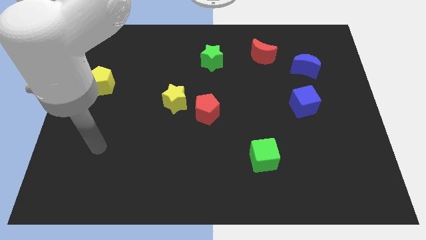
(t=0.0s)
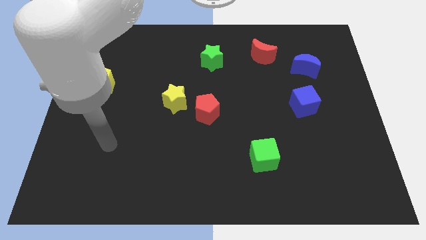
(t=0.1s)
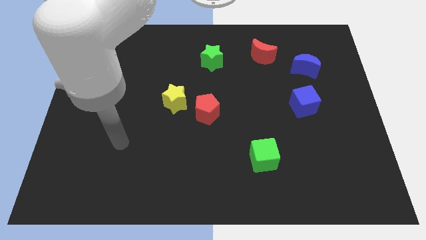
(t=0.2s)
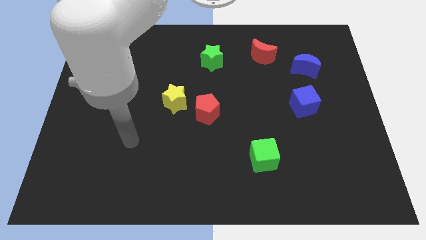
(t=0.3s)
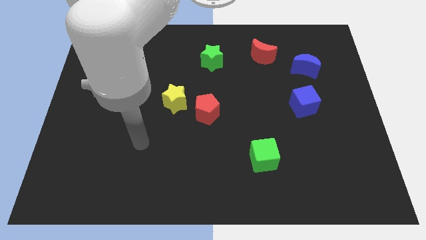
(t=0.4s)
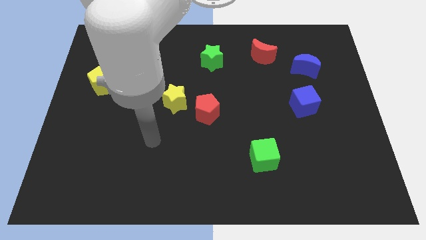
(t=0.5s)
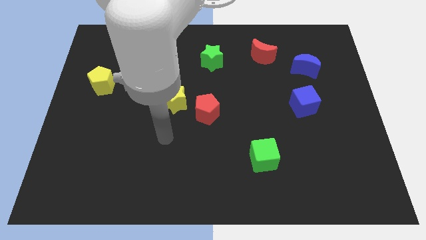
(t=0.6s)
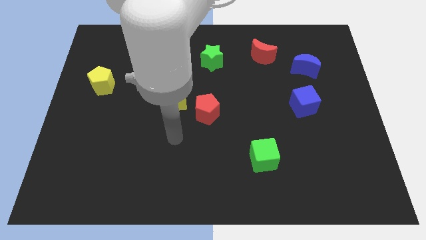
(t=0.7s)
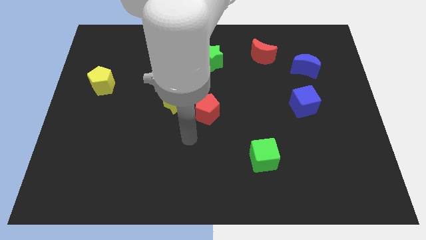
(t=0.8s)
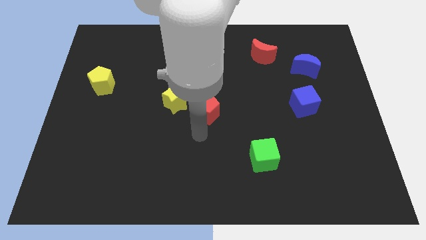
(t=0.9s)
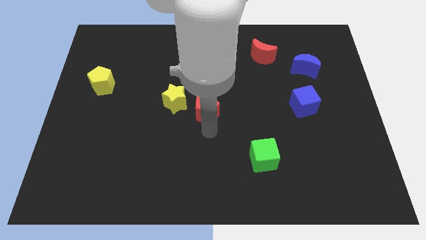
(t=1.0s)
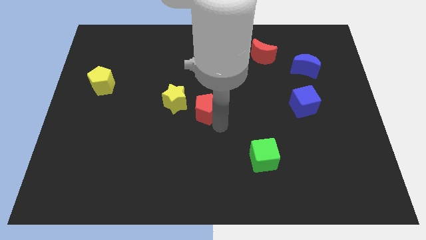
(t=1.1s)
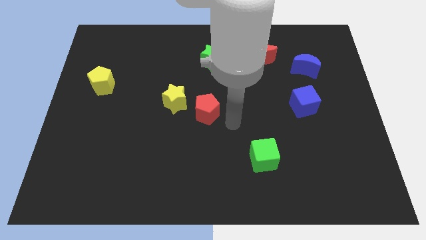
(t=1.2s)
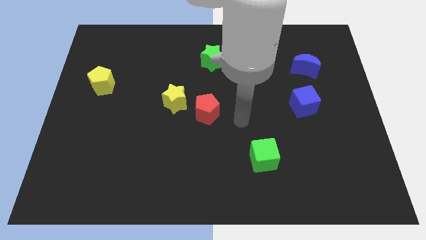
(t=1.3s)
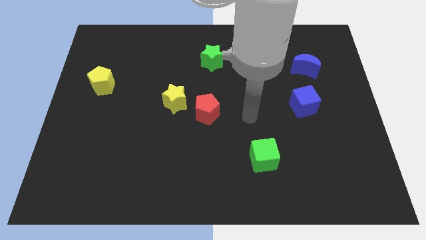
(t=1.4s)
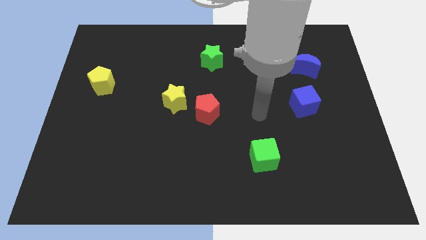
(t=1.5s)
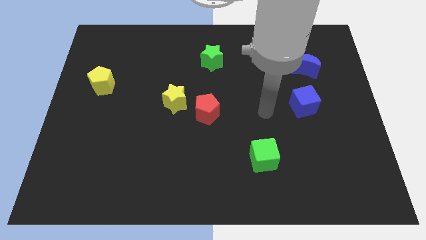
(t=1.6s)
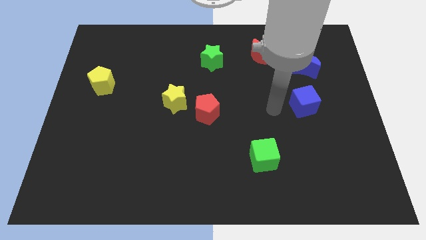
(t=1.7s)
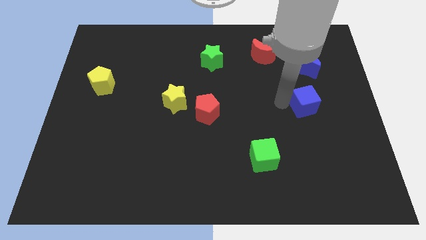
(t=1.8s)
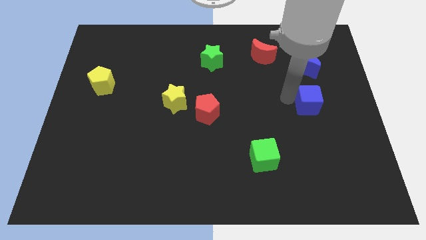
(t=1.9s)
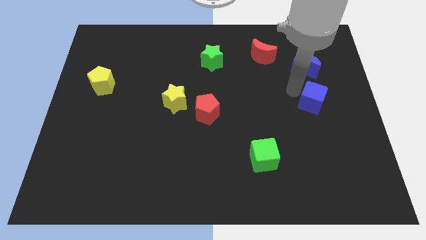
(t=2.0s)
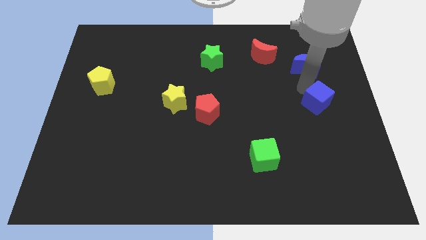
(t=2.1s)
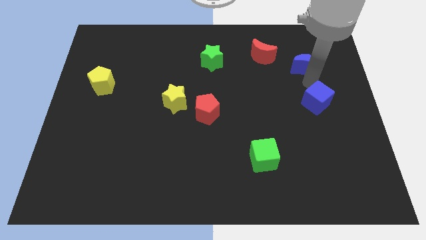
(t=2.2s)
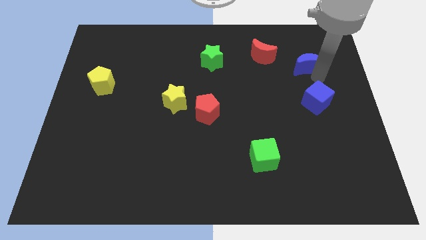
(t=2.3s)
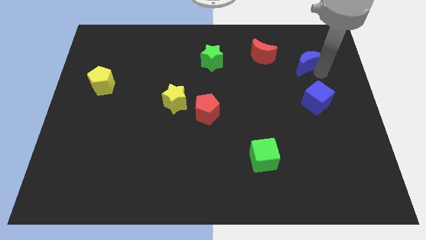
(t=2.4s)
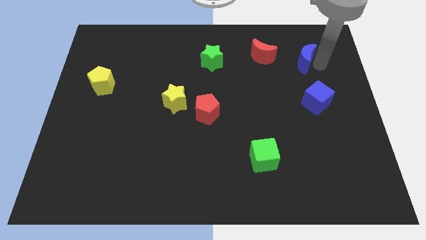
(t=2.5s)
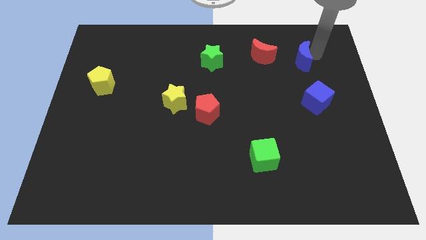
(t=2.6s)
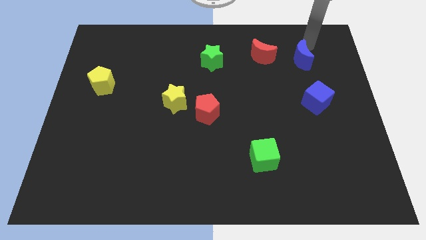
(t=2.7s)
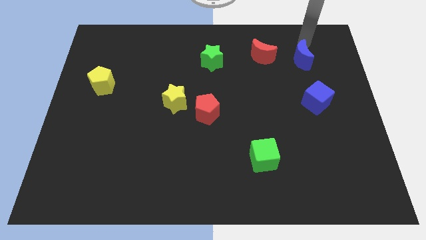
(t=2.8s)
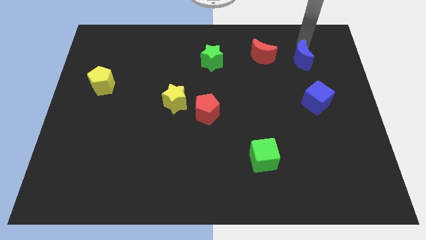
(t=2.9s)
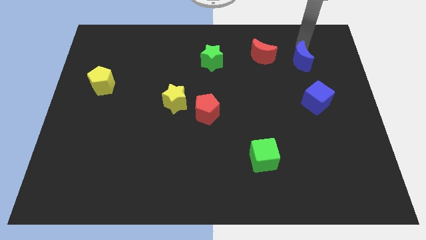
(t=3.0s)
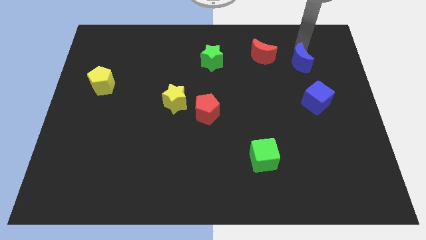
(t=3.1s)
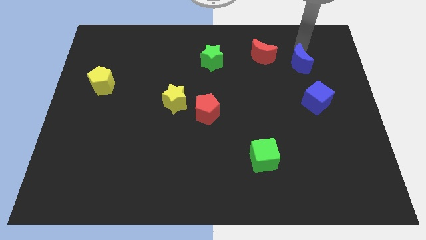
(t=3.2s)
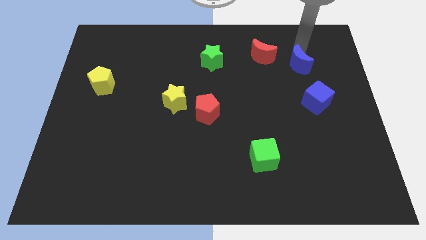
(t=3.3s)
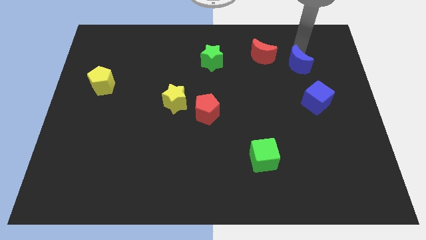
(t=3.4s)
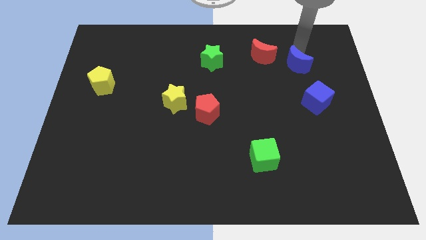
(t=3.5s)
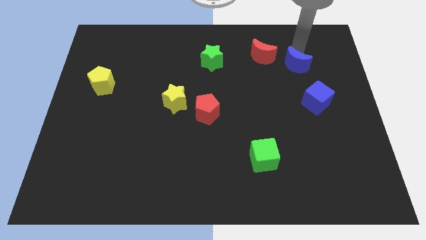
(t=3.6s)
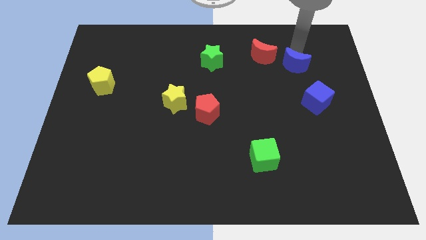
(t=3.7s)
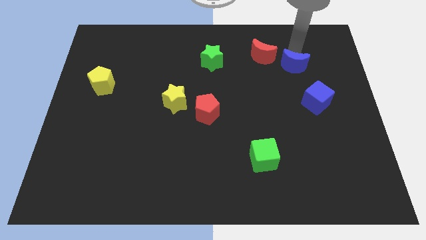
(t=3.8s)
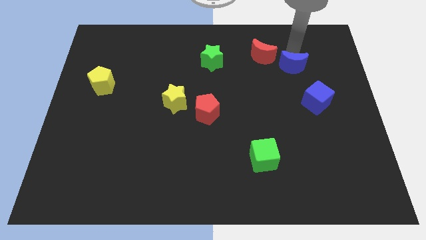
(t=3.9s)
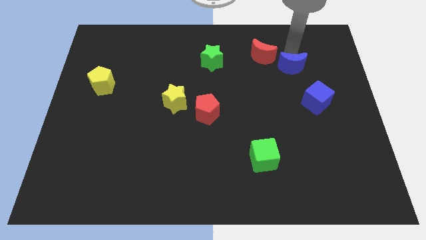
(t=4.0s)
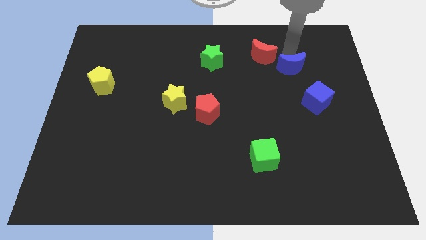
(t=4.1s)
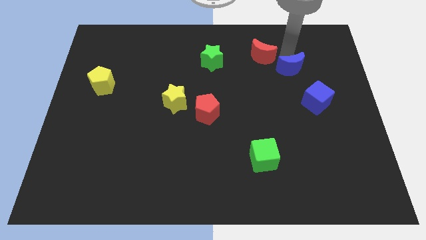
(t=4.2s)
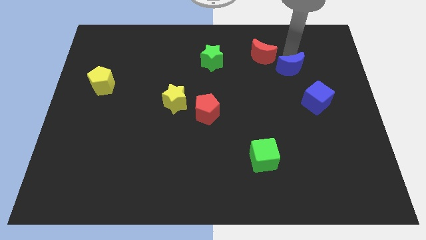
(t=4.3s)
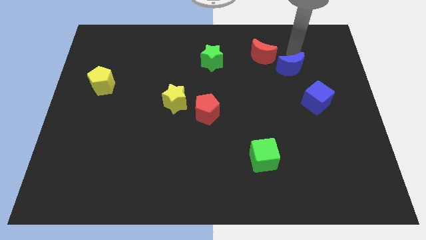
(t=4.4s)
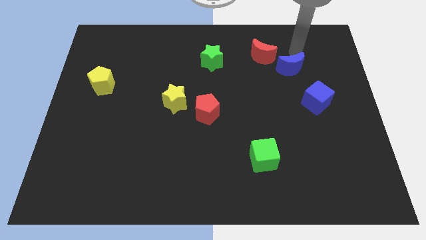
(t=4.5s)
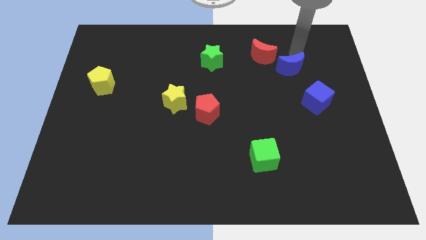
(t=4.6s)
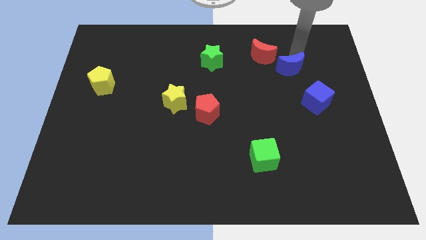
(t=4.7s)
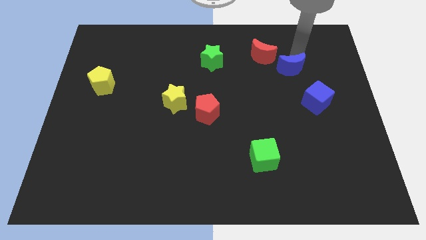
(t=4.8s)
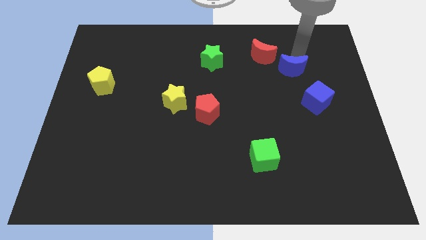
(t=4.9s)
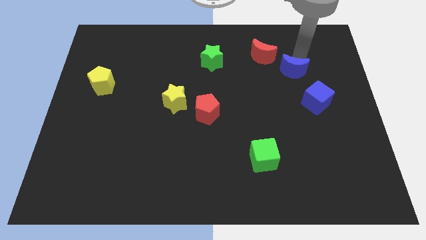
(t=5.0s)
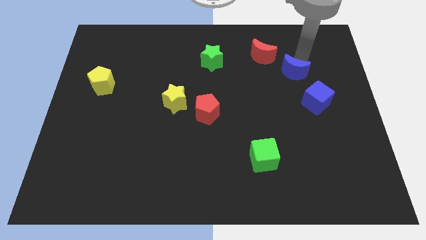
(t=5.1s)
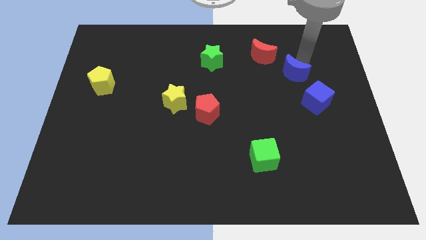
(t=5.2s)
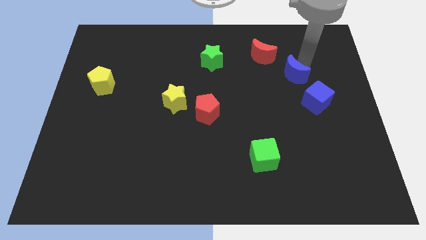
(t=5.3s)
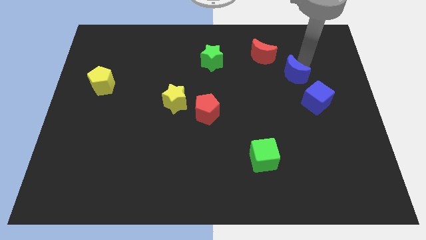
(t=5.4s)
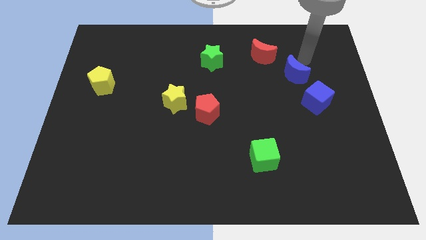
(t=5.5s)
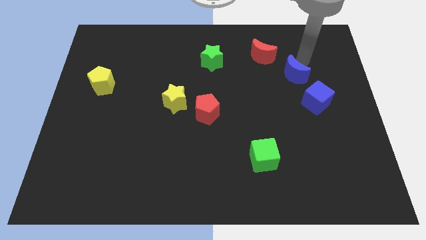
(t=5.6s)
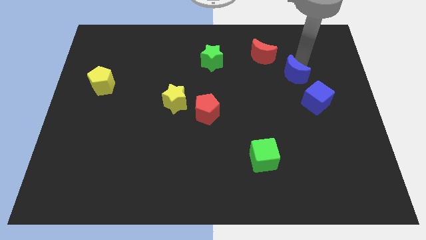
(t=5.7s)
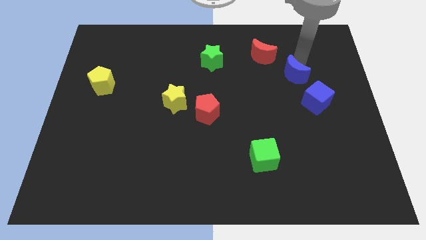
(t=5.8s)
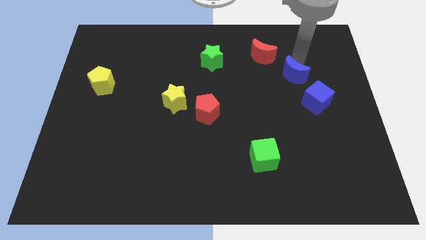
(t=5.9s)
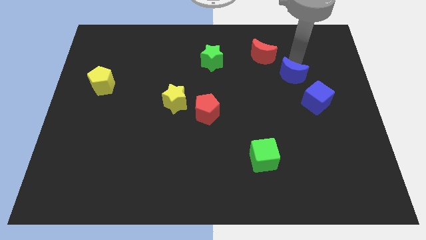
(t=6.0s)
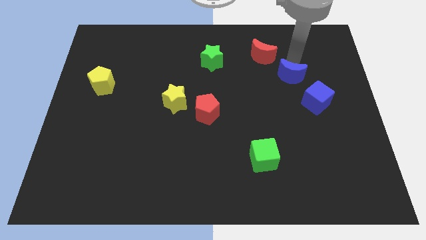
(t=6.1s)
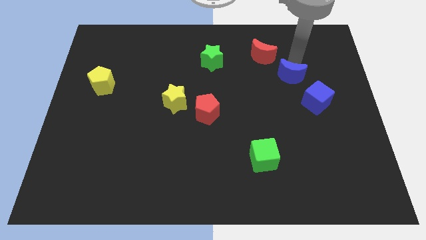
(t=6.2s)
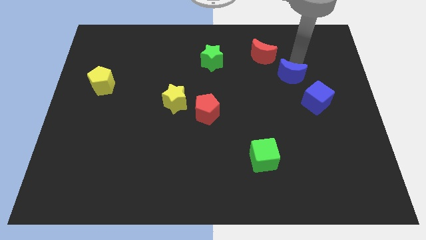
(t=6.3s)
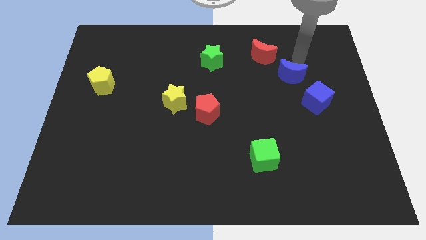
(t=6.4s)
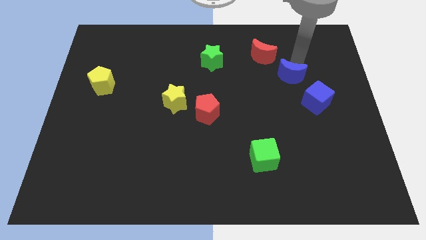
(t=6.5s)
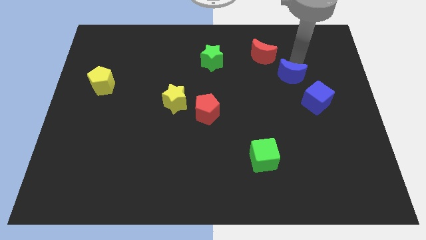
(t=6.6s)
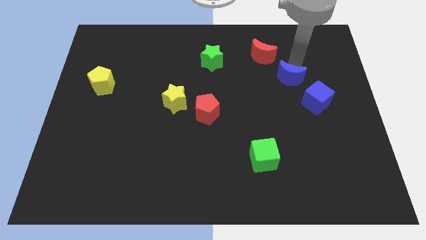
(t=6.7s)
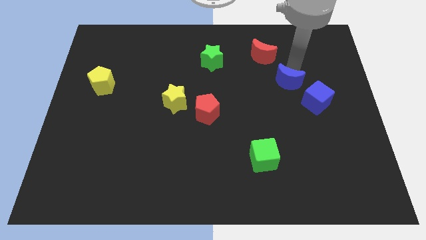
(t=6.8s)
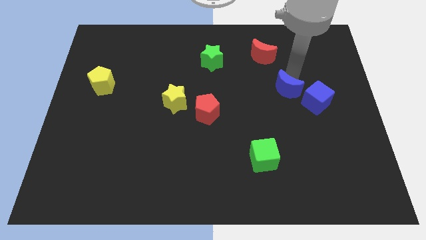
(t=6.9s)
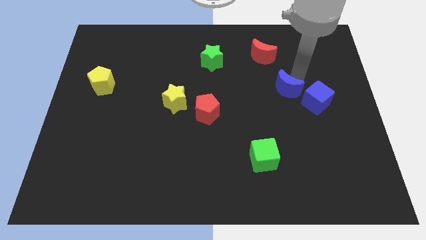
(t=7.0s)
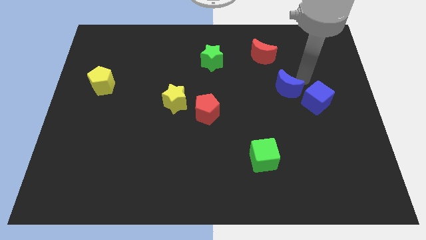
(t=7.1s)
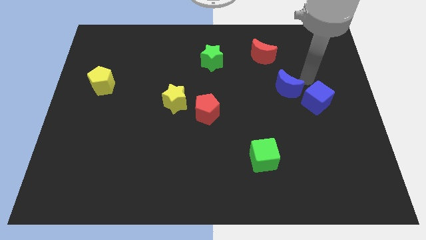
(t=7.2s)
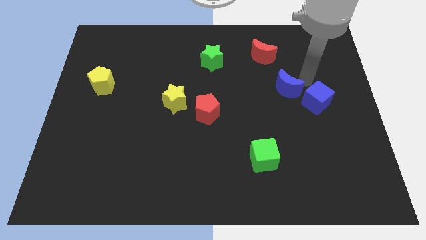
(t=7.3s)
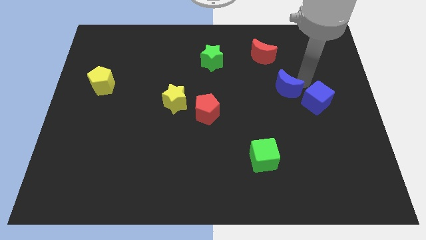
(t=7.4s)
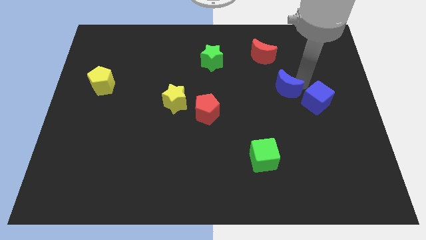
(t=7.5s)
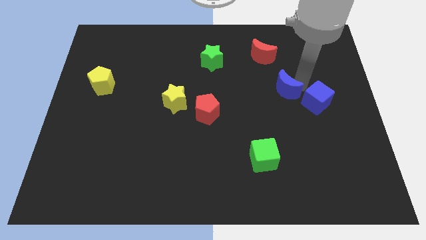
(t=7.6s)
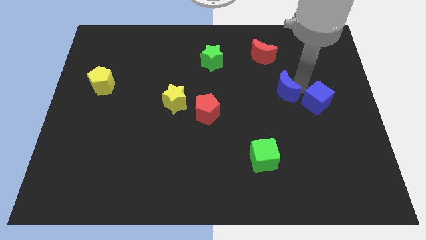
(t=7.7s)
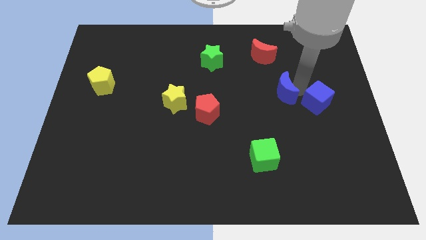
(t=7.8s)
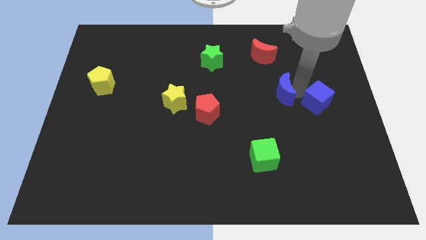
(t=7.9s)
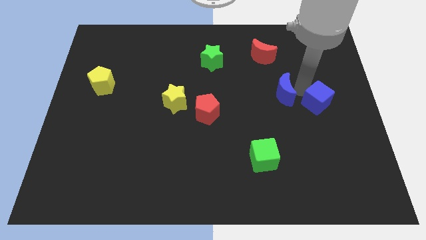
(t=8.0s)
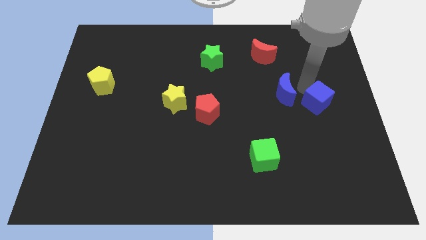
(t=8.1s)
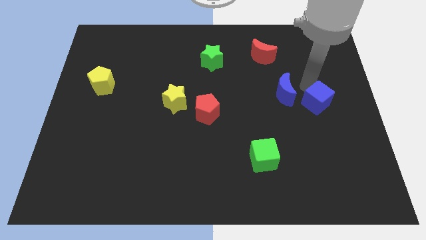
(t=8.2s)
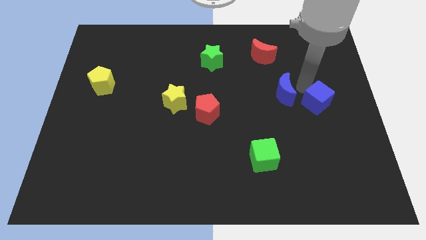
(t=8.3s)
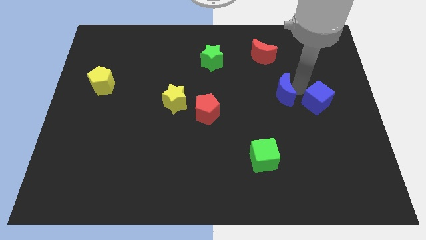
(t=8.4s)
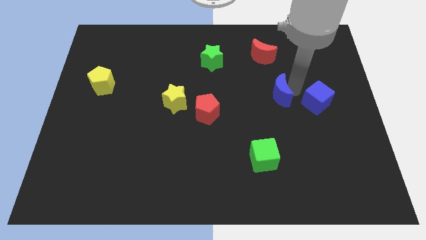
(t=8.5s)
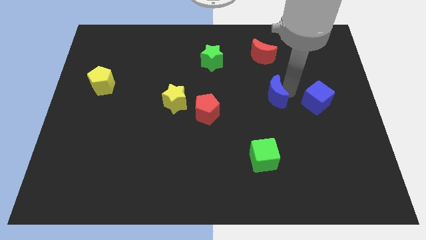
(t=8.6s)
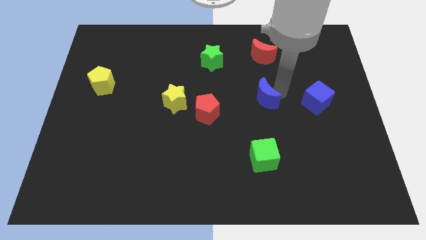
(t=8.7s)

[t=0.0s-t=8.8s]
slide the blue moon to the right side of the red pentagon
